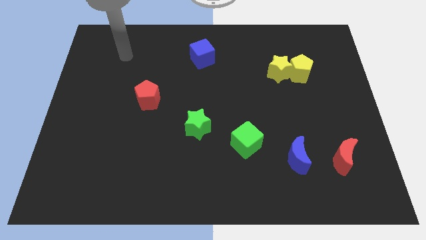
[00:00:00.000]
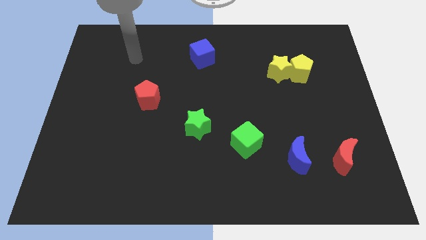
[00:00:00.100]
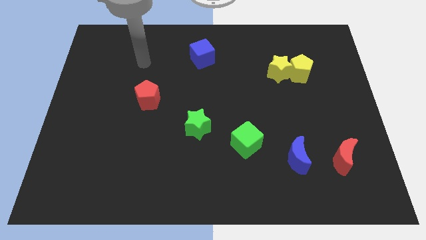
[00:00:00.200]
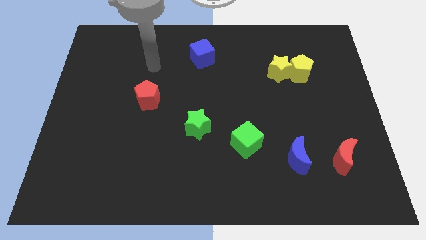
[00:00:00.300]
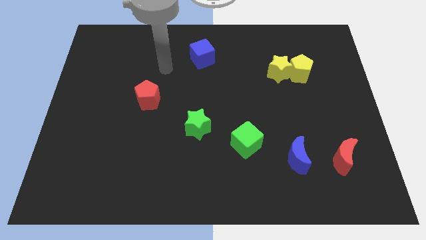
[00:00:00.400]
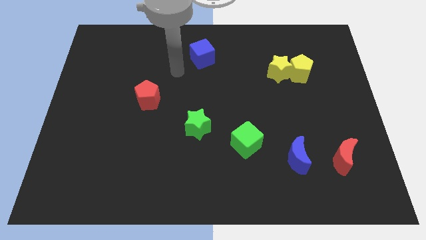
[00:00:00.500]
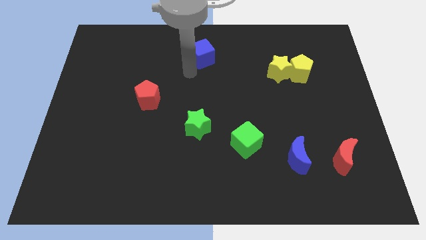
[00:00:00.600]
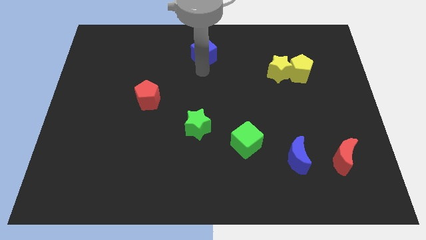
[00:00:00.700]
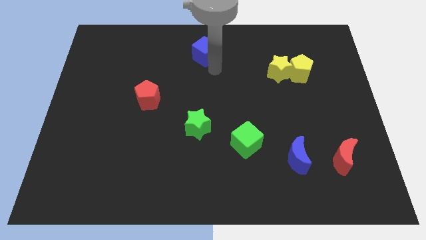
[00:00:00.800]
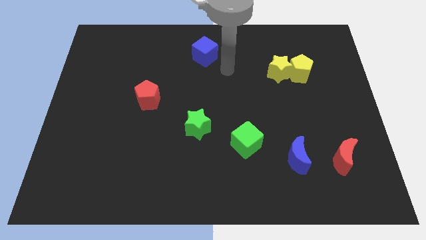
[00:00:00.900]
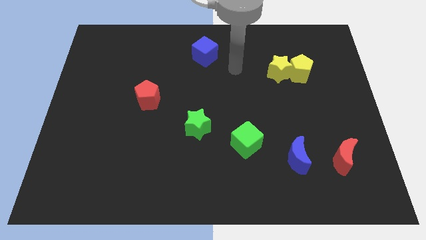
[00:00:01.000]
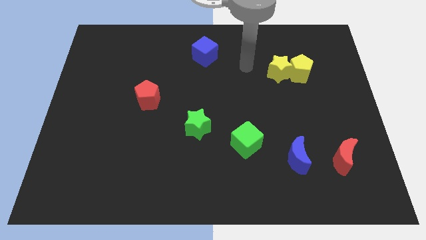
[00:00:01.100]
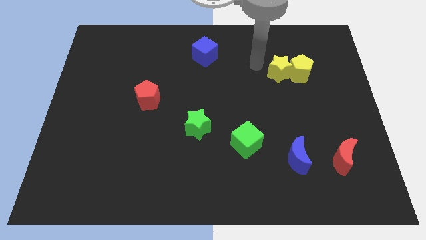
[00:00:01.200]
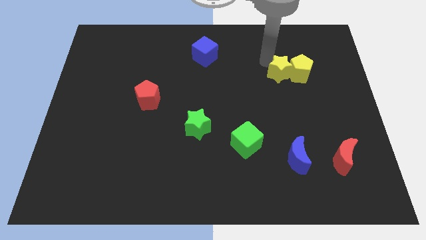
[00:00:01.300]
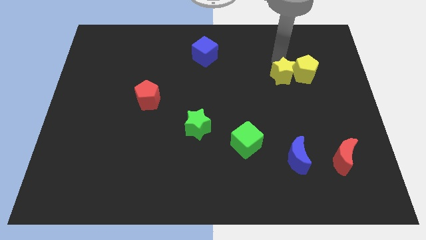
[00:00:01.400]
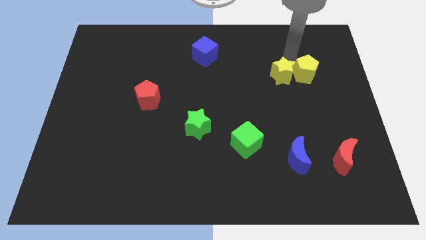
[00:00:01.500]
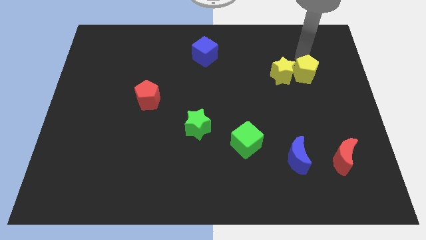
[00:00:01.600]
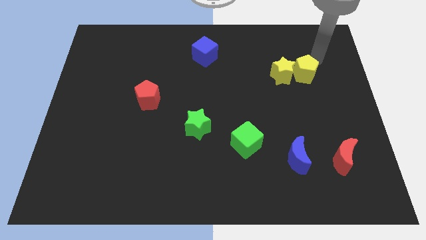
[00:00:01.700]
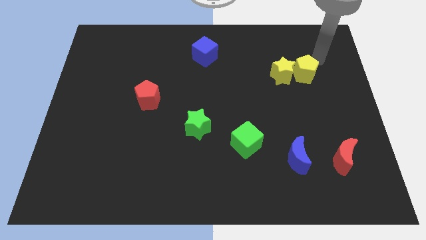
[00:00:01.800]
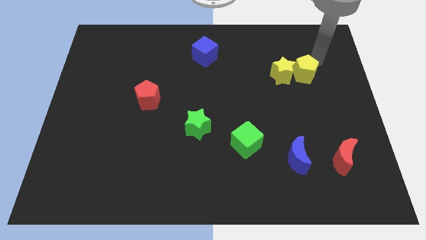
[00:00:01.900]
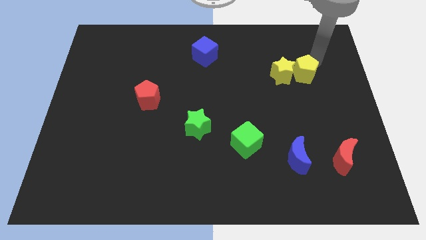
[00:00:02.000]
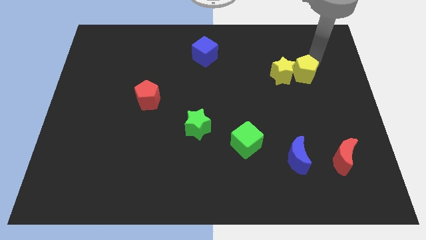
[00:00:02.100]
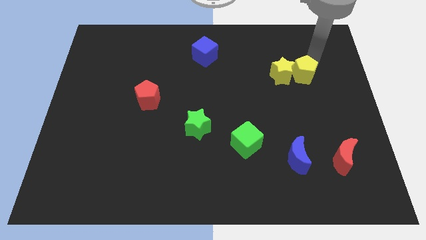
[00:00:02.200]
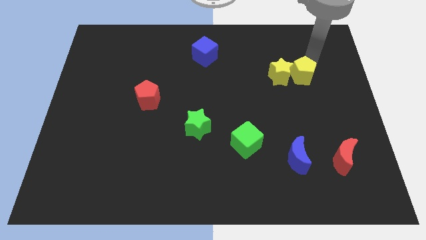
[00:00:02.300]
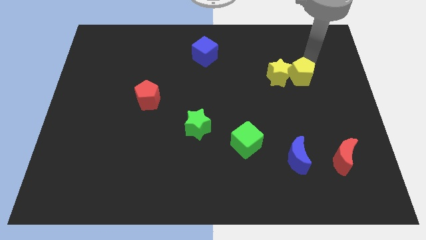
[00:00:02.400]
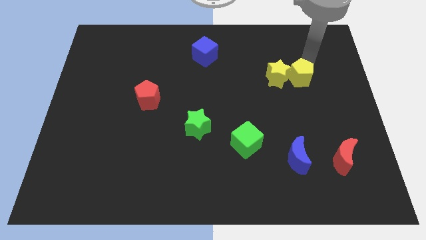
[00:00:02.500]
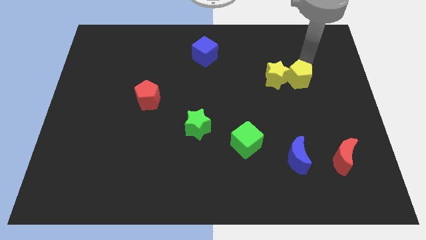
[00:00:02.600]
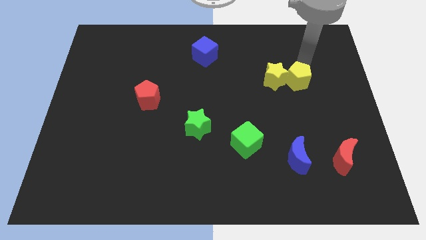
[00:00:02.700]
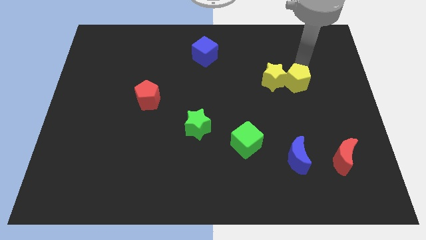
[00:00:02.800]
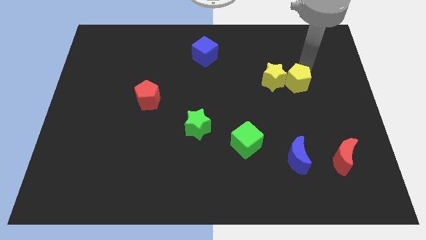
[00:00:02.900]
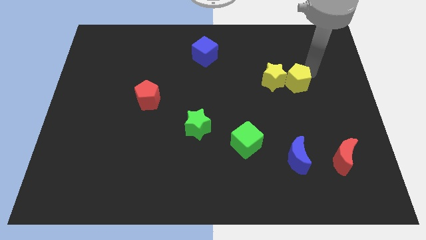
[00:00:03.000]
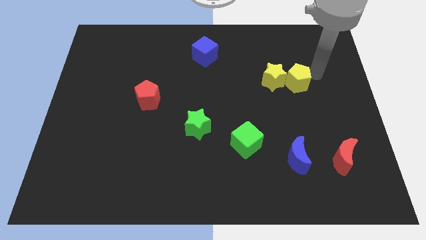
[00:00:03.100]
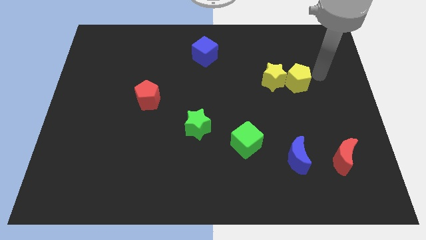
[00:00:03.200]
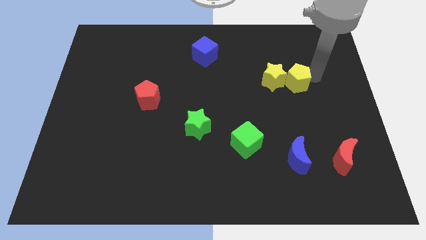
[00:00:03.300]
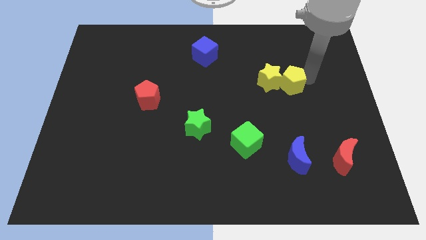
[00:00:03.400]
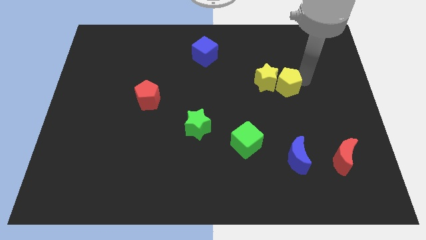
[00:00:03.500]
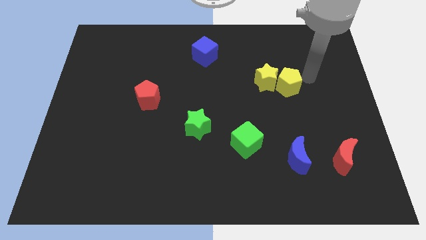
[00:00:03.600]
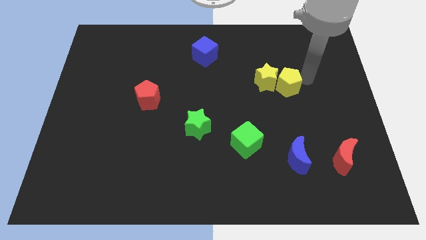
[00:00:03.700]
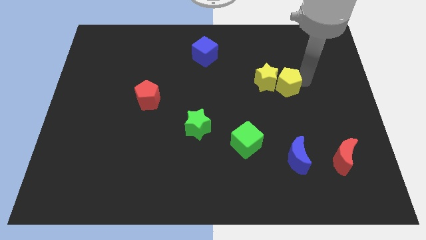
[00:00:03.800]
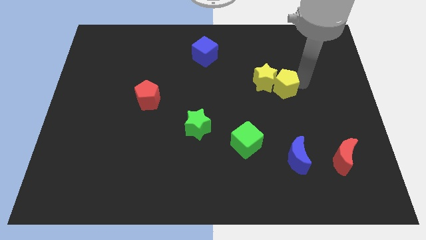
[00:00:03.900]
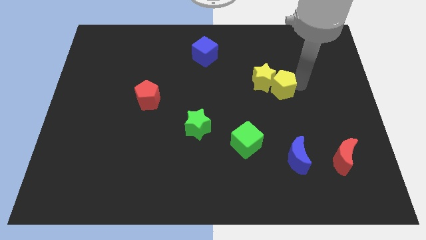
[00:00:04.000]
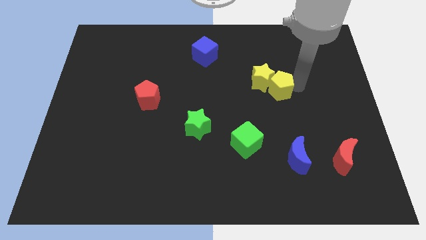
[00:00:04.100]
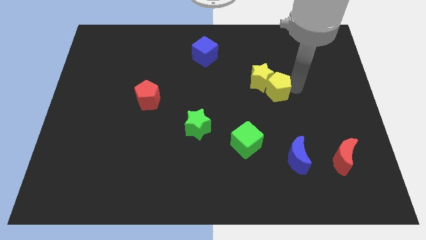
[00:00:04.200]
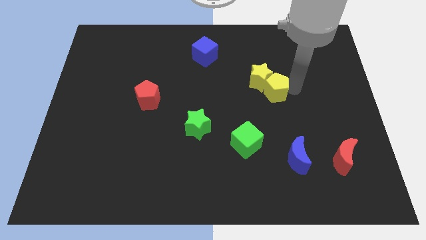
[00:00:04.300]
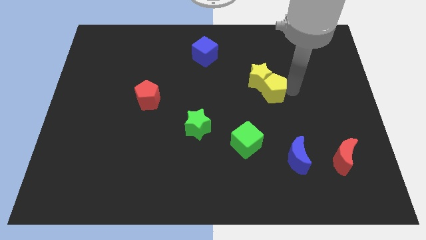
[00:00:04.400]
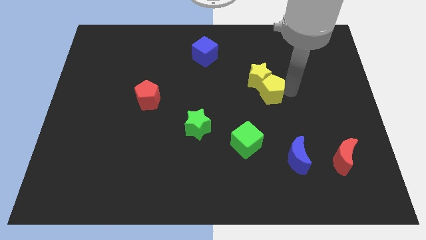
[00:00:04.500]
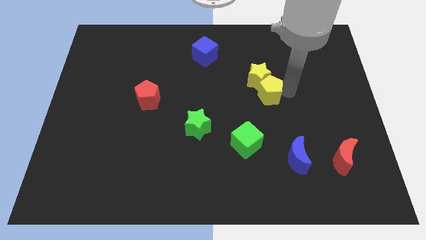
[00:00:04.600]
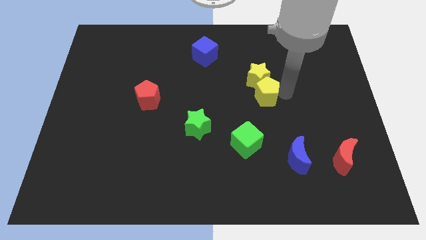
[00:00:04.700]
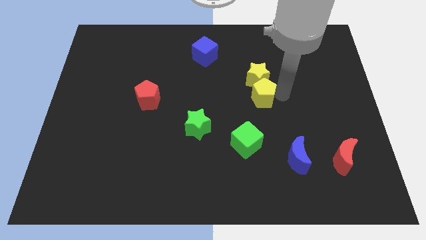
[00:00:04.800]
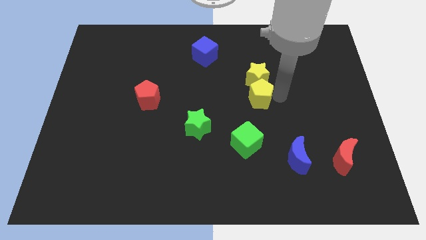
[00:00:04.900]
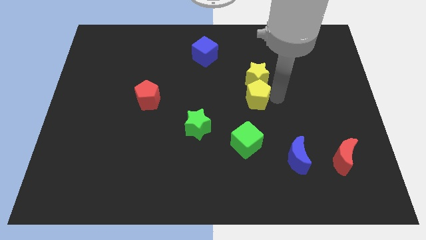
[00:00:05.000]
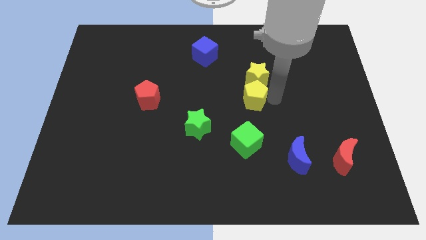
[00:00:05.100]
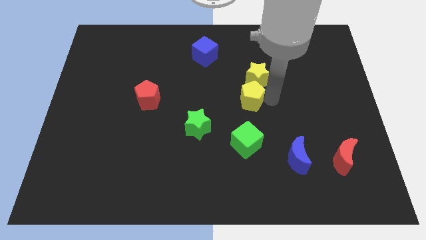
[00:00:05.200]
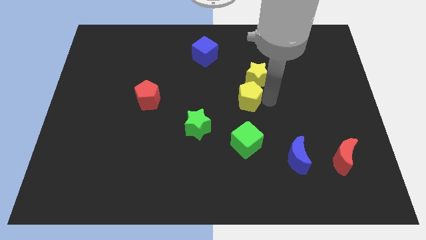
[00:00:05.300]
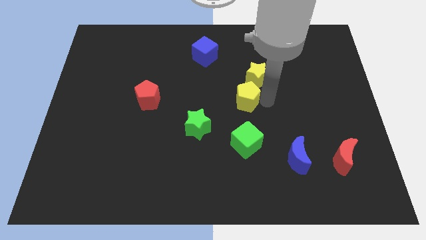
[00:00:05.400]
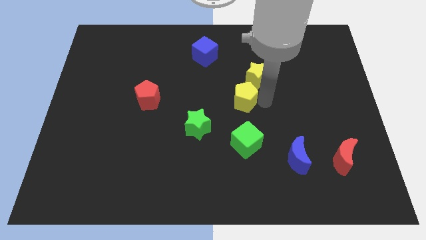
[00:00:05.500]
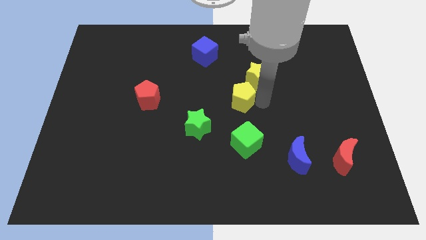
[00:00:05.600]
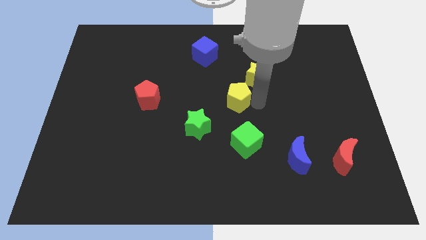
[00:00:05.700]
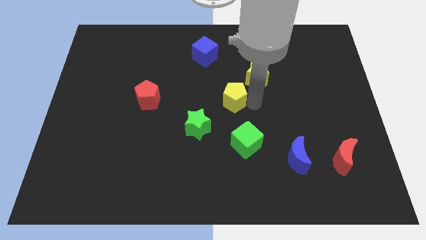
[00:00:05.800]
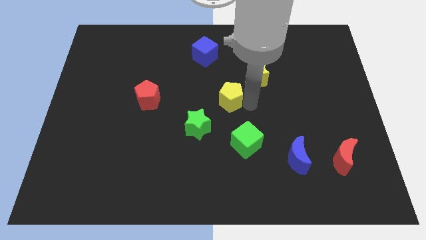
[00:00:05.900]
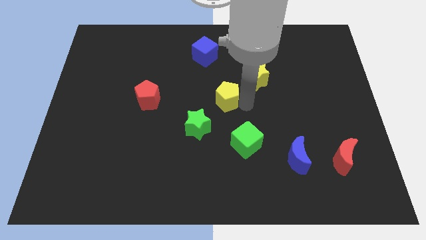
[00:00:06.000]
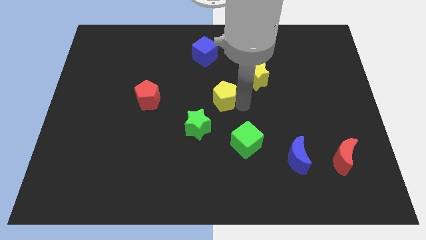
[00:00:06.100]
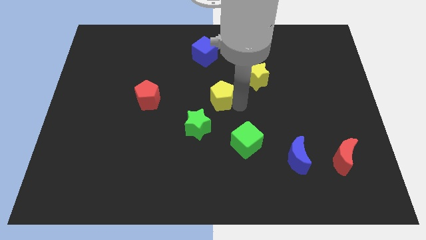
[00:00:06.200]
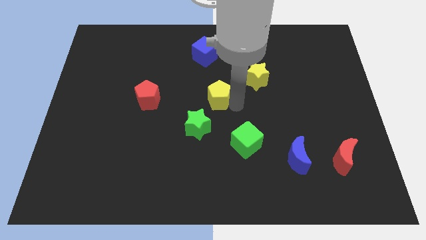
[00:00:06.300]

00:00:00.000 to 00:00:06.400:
push the yellow pentagon to the bottom of the blue cube
